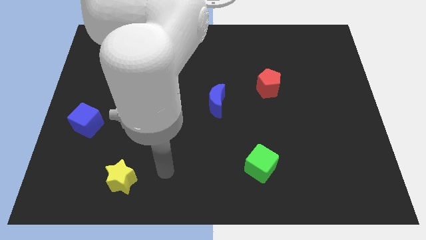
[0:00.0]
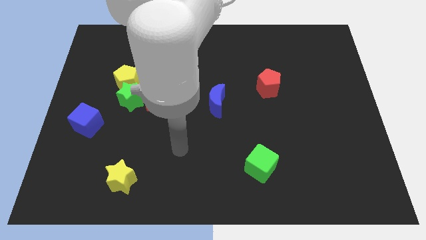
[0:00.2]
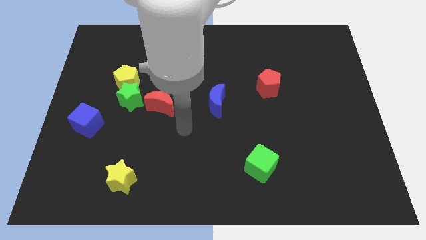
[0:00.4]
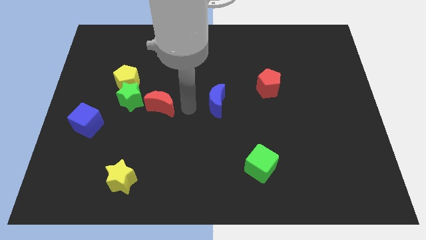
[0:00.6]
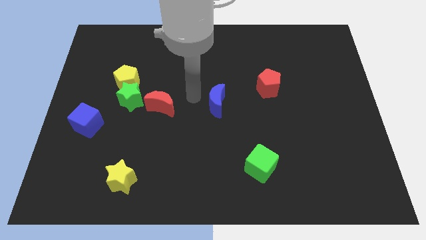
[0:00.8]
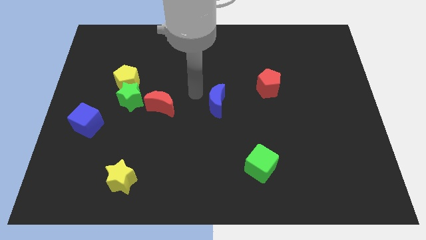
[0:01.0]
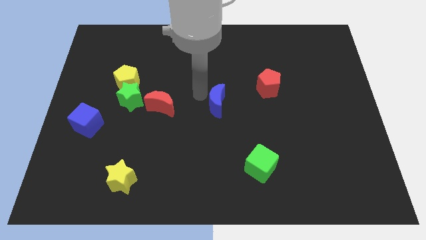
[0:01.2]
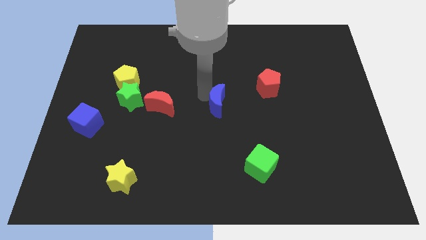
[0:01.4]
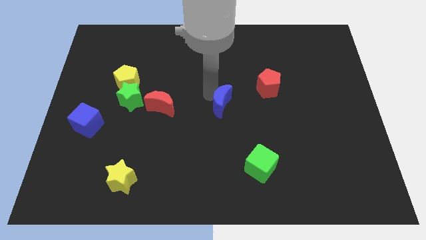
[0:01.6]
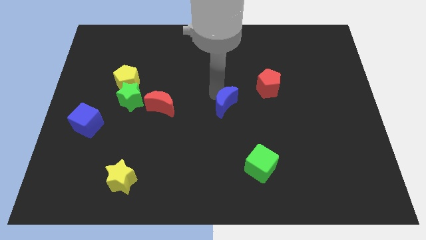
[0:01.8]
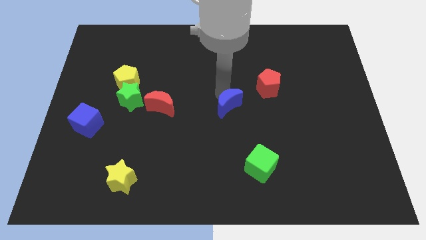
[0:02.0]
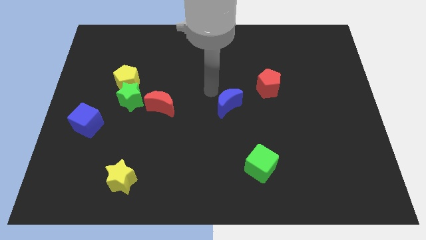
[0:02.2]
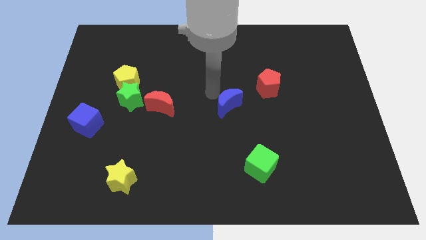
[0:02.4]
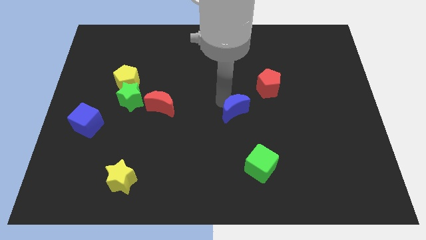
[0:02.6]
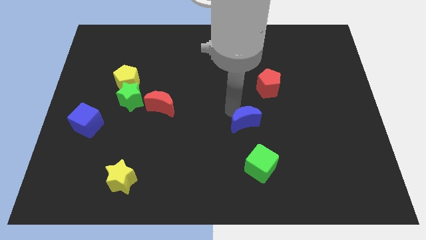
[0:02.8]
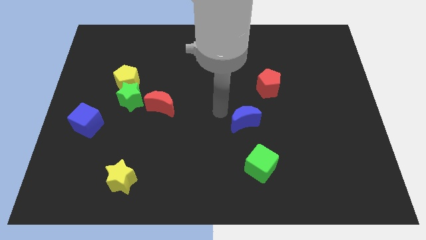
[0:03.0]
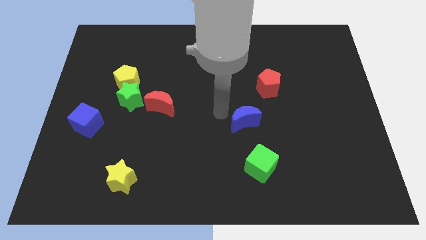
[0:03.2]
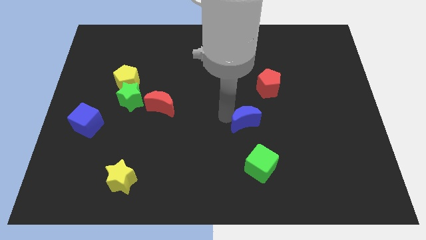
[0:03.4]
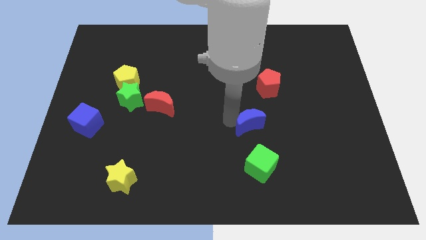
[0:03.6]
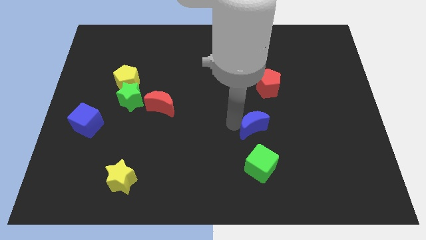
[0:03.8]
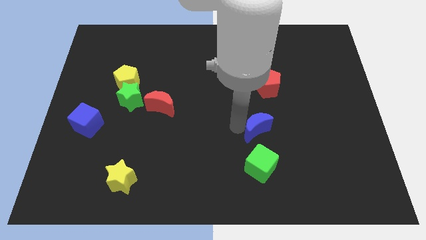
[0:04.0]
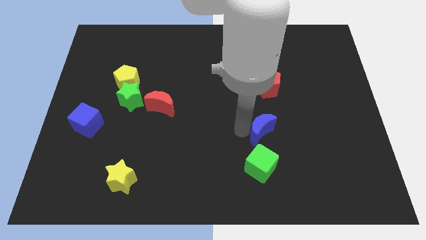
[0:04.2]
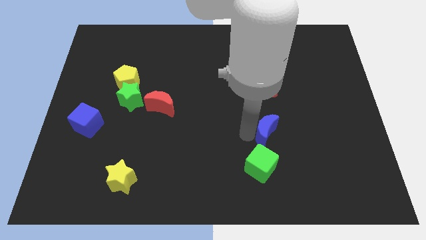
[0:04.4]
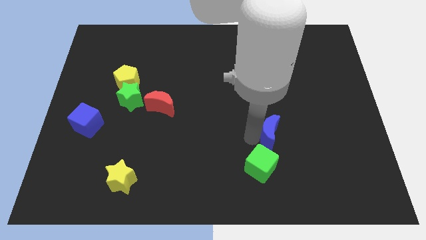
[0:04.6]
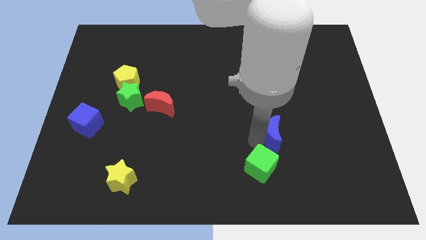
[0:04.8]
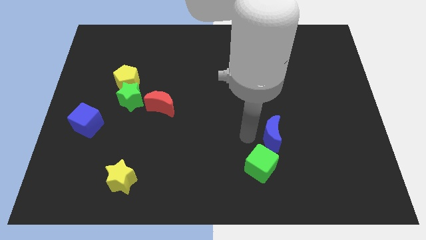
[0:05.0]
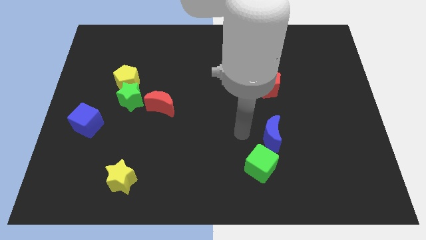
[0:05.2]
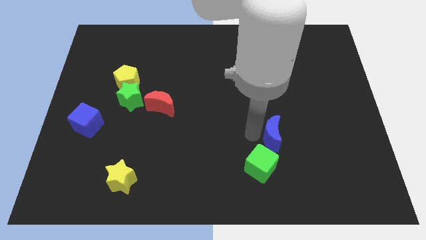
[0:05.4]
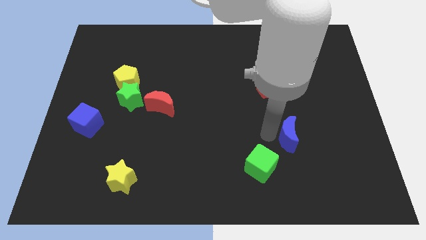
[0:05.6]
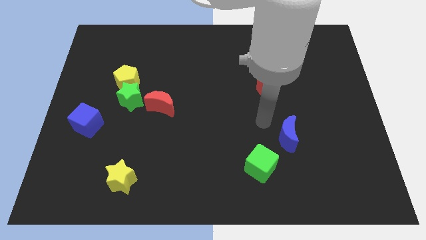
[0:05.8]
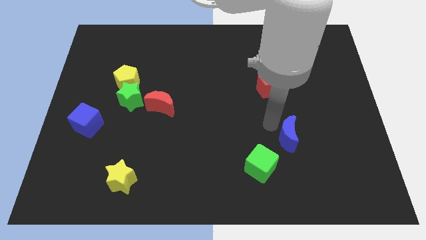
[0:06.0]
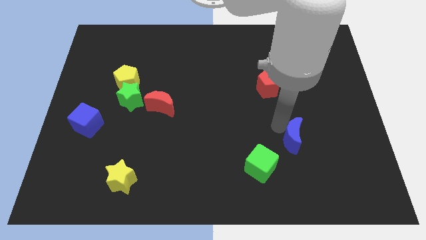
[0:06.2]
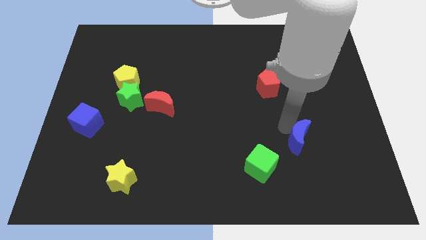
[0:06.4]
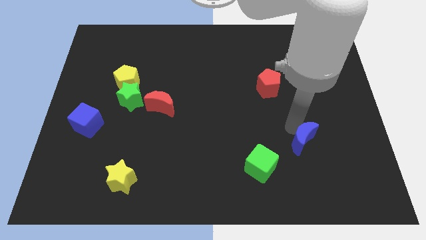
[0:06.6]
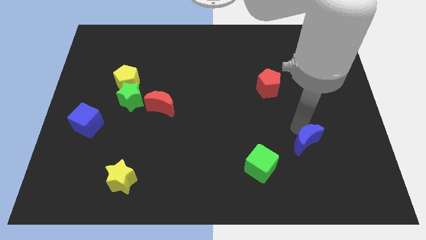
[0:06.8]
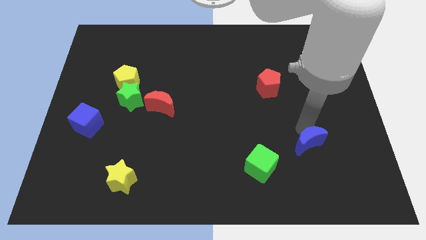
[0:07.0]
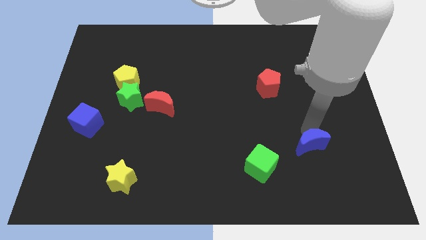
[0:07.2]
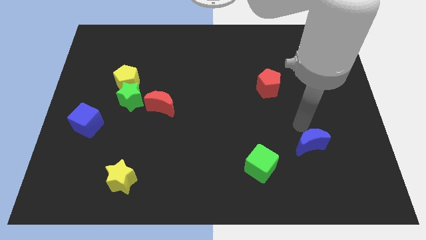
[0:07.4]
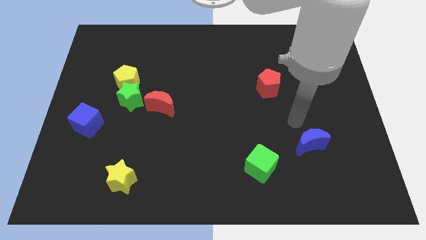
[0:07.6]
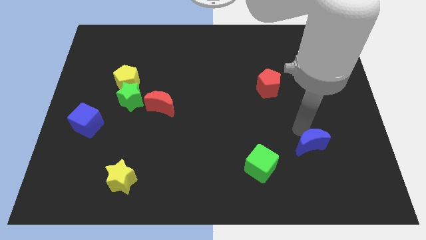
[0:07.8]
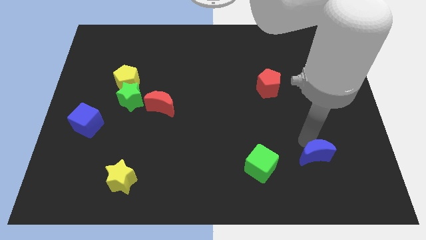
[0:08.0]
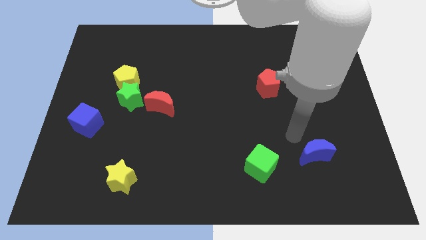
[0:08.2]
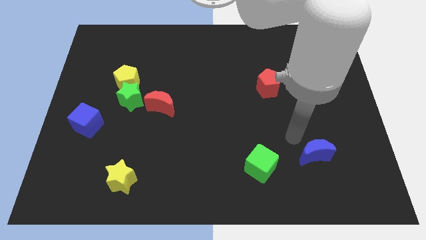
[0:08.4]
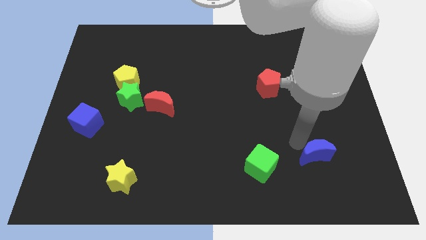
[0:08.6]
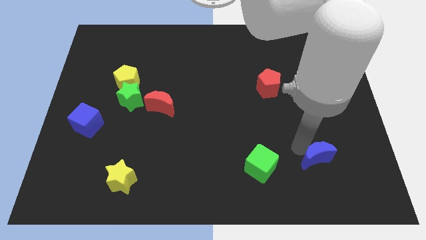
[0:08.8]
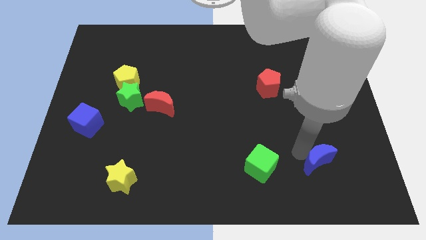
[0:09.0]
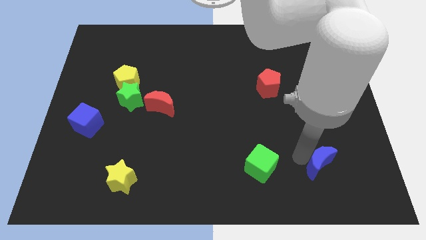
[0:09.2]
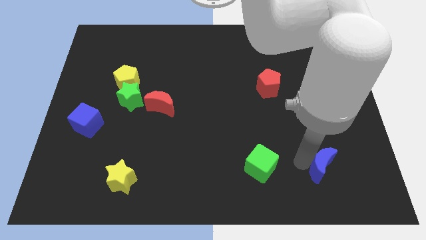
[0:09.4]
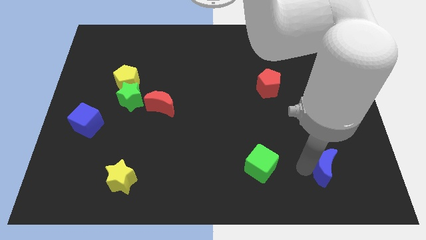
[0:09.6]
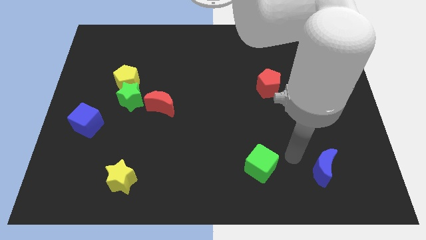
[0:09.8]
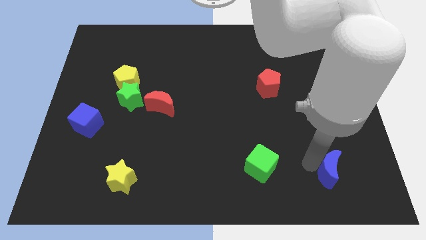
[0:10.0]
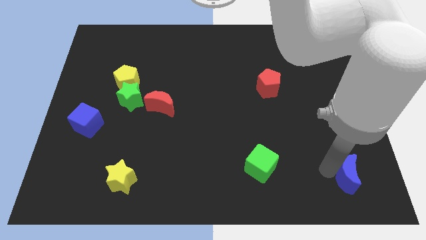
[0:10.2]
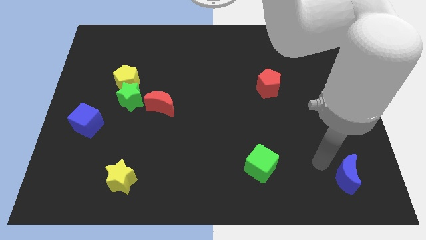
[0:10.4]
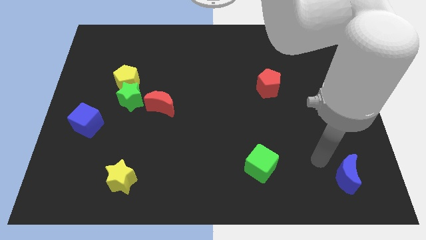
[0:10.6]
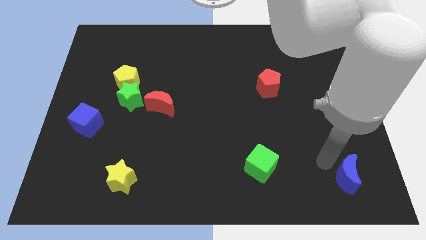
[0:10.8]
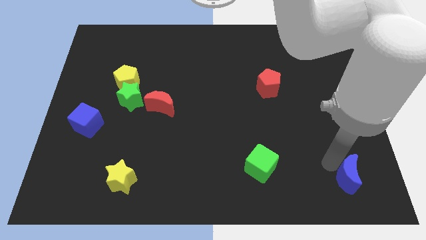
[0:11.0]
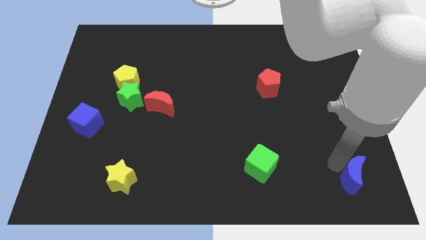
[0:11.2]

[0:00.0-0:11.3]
move the blue moon to the bottom right corner
